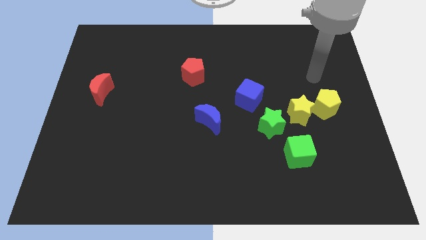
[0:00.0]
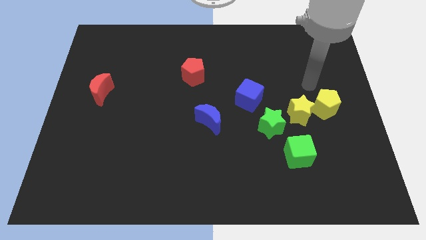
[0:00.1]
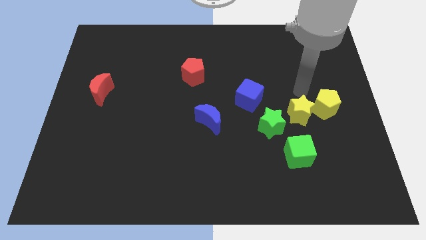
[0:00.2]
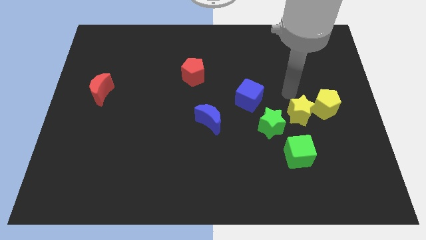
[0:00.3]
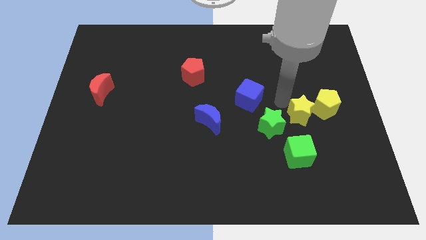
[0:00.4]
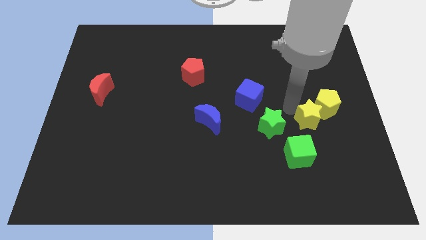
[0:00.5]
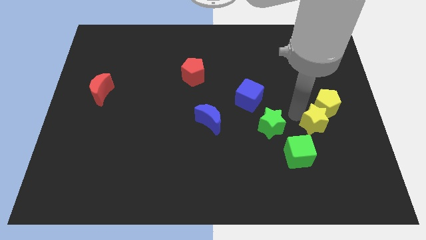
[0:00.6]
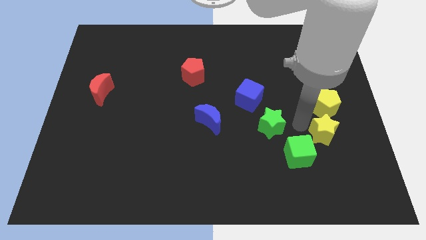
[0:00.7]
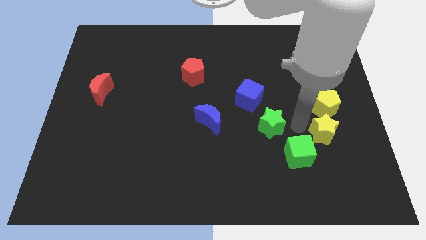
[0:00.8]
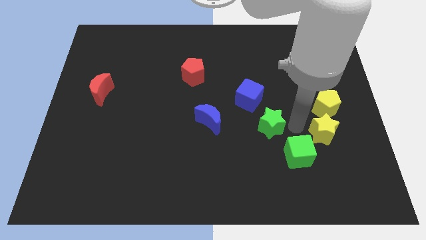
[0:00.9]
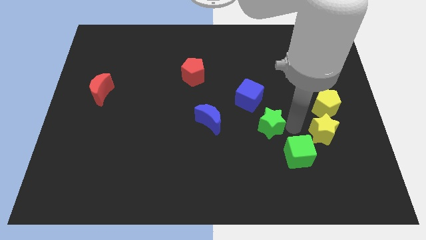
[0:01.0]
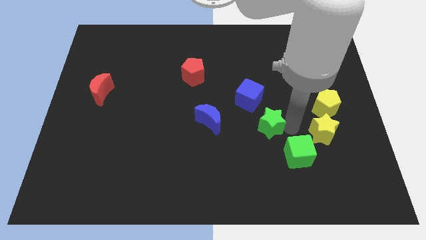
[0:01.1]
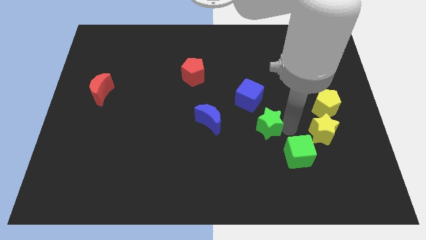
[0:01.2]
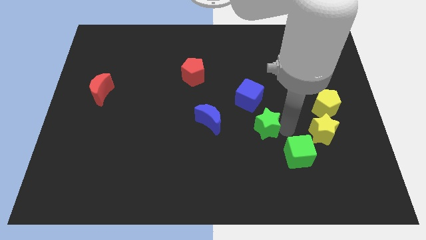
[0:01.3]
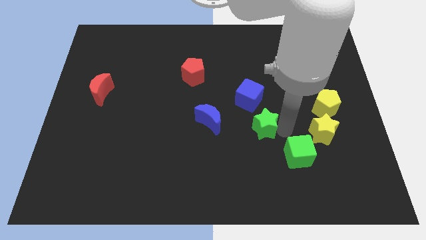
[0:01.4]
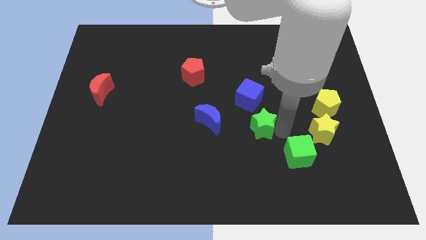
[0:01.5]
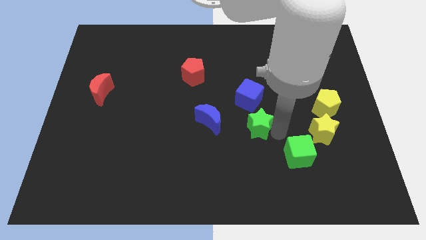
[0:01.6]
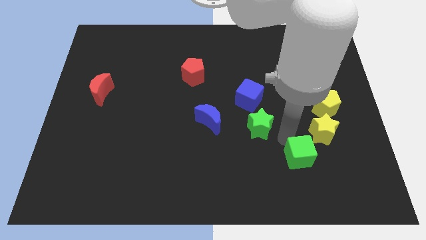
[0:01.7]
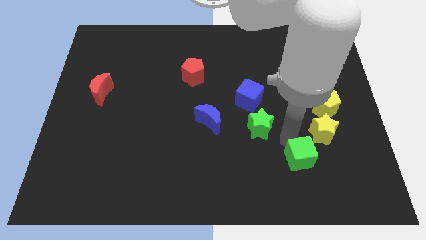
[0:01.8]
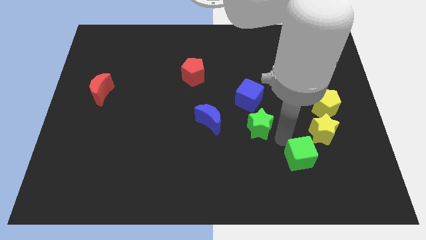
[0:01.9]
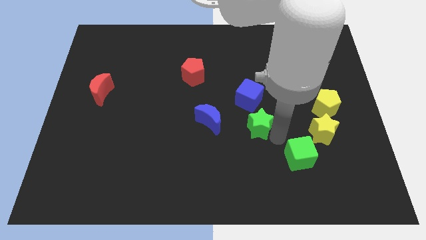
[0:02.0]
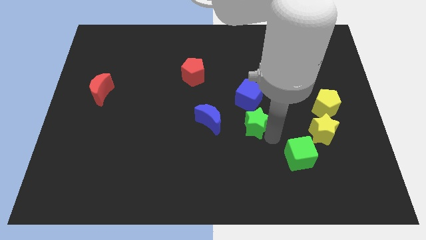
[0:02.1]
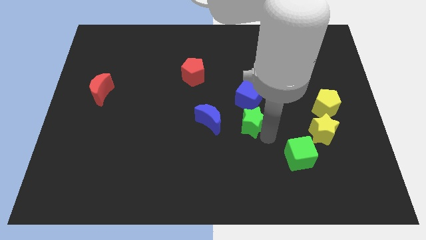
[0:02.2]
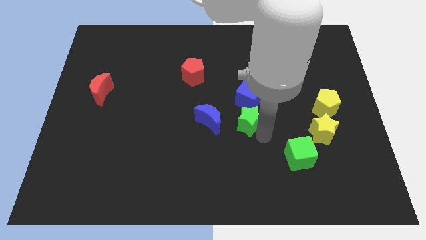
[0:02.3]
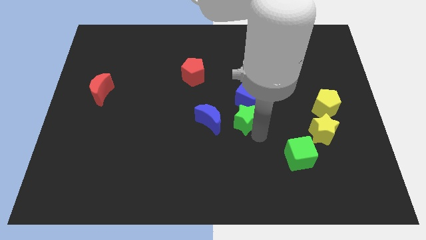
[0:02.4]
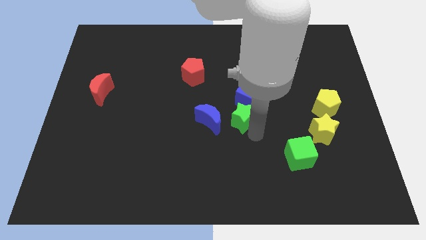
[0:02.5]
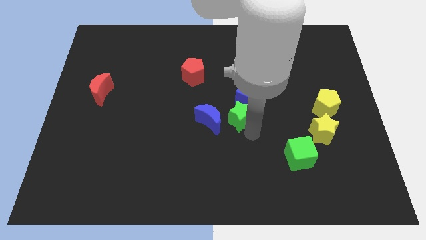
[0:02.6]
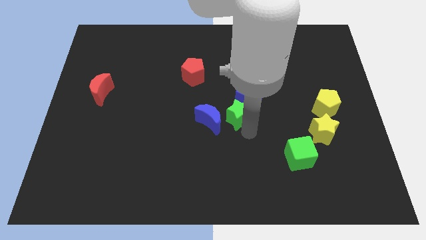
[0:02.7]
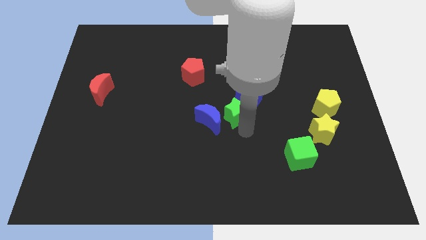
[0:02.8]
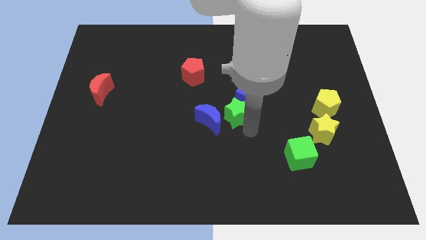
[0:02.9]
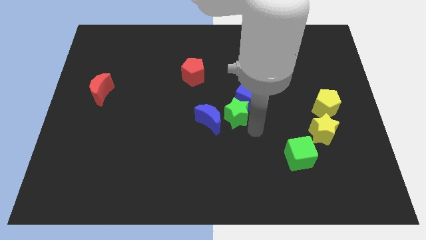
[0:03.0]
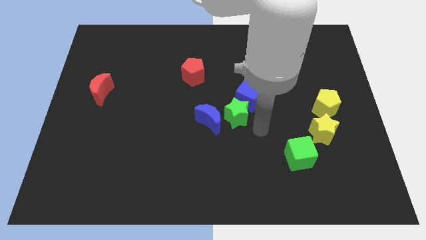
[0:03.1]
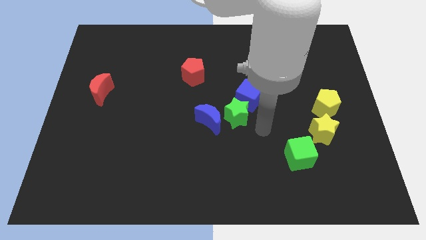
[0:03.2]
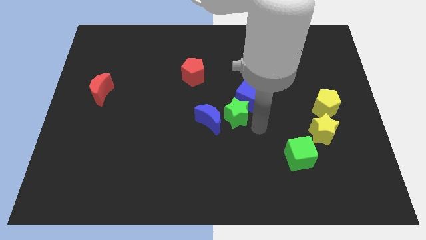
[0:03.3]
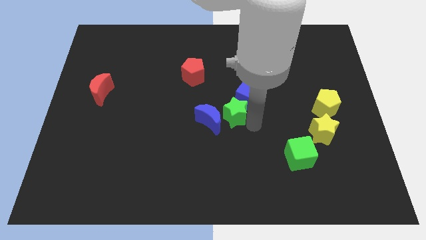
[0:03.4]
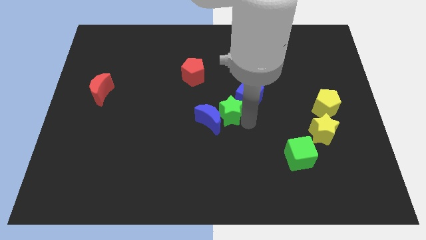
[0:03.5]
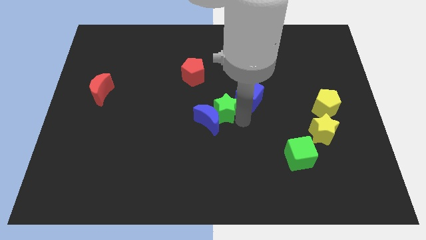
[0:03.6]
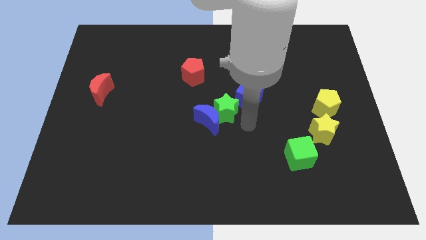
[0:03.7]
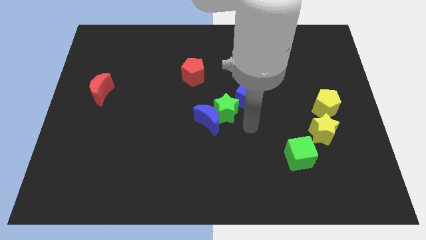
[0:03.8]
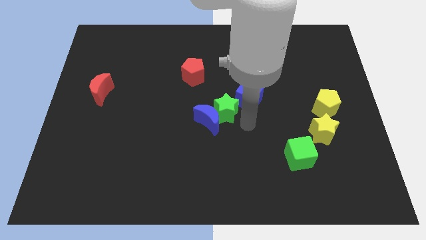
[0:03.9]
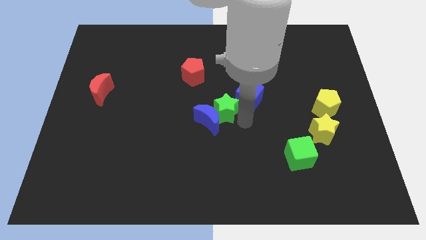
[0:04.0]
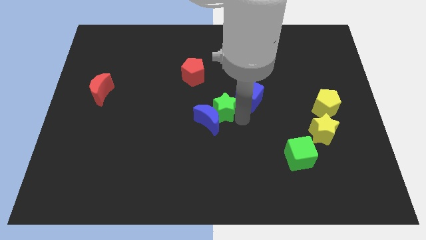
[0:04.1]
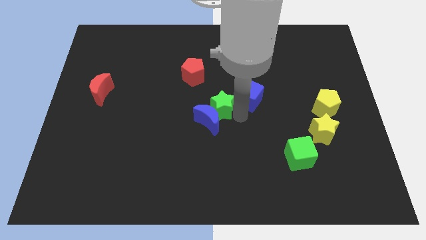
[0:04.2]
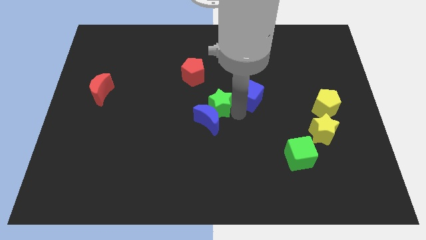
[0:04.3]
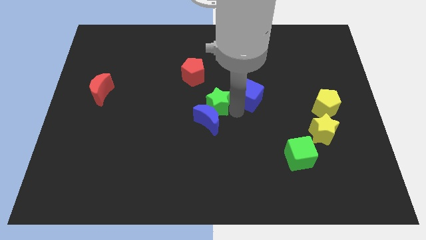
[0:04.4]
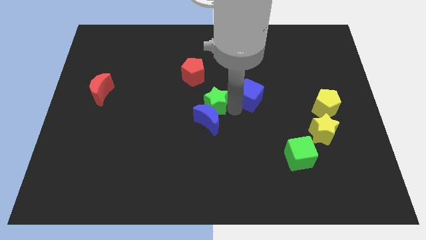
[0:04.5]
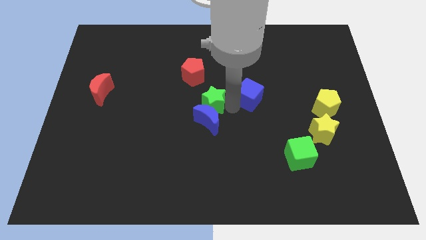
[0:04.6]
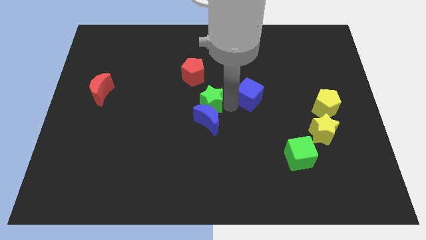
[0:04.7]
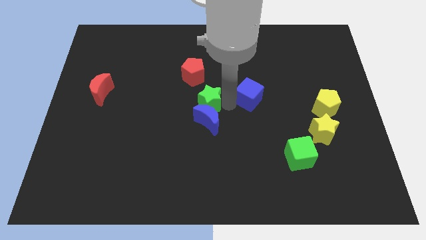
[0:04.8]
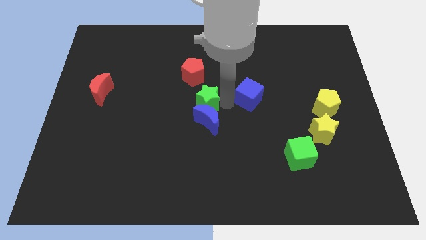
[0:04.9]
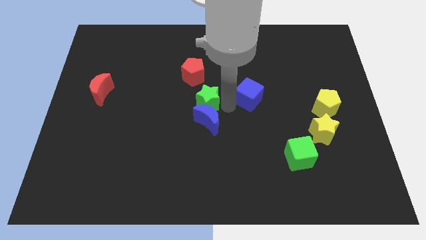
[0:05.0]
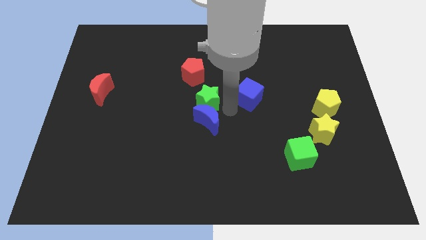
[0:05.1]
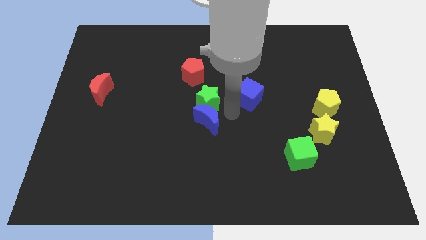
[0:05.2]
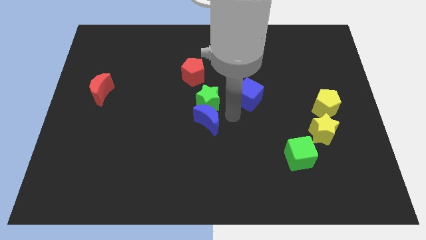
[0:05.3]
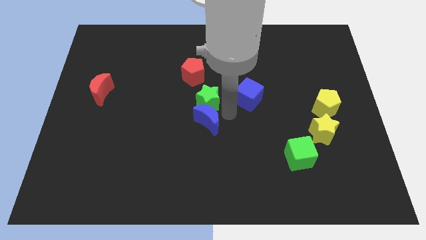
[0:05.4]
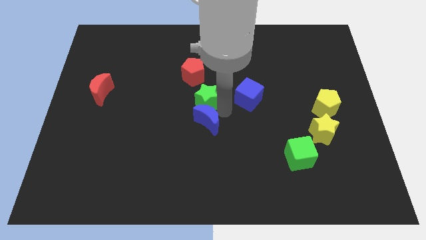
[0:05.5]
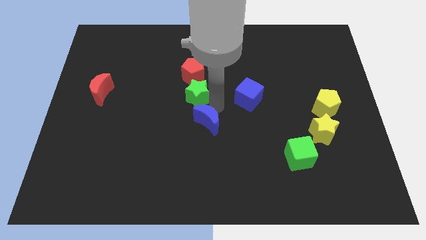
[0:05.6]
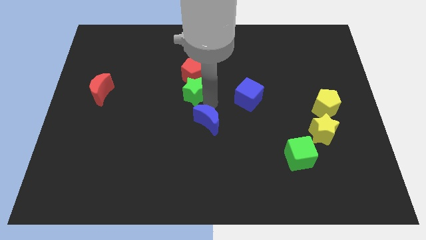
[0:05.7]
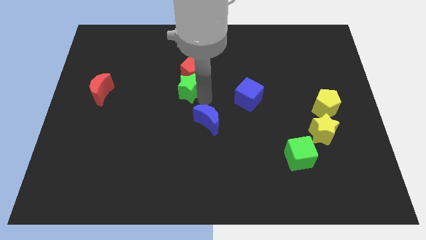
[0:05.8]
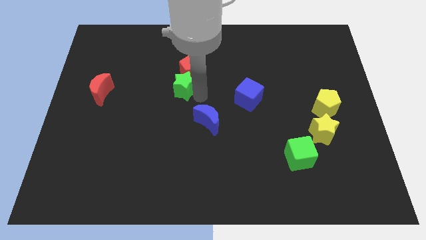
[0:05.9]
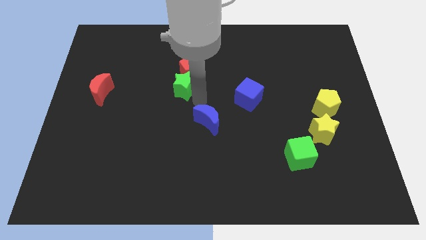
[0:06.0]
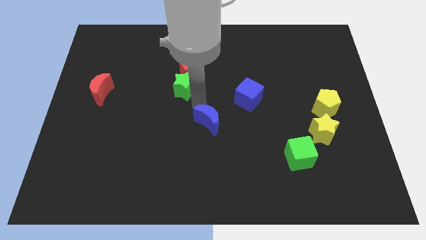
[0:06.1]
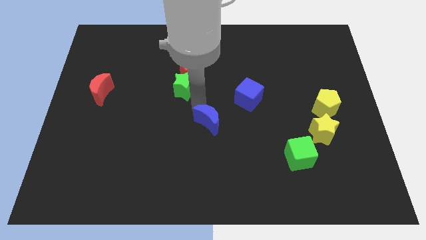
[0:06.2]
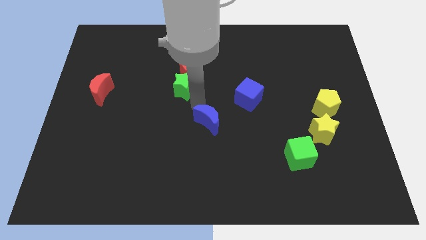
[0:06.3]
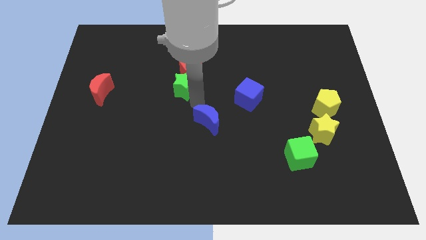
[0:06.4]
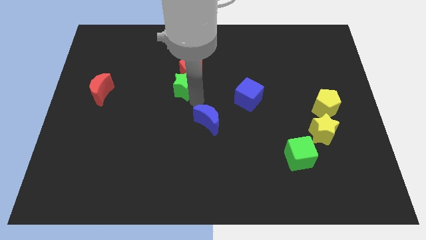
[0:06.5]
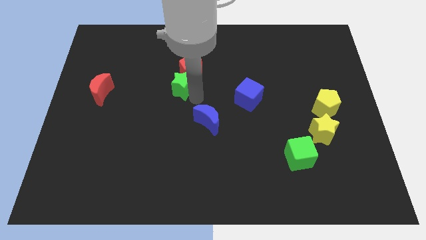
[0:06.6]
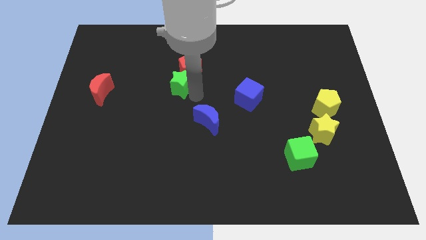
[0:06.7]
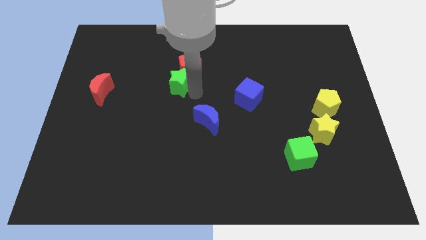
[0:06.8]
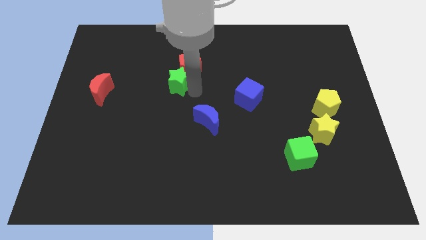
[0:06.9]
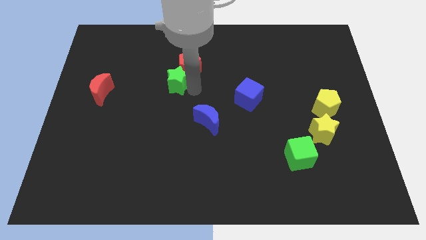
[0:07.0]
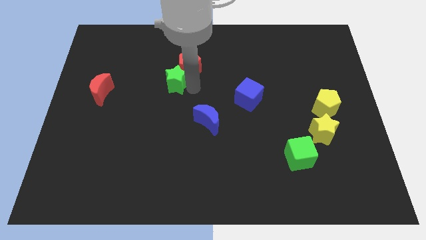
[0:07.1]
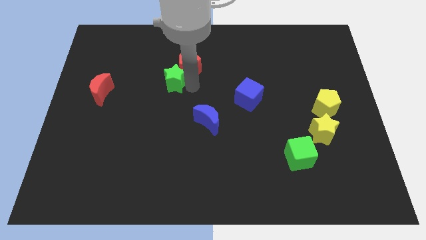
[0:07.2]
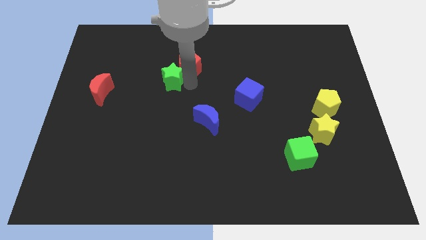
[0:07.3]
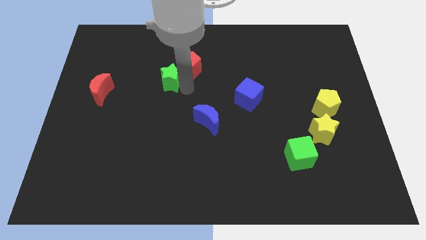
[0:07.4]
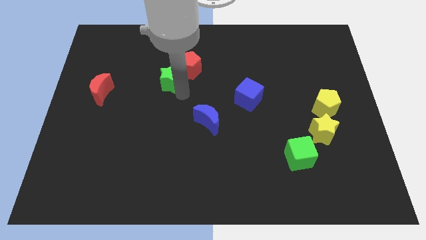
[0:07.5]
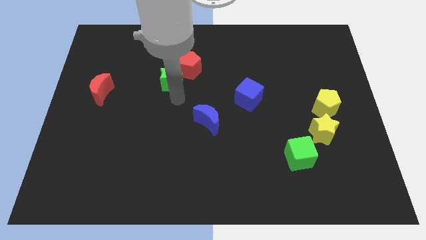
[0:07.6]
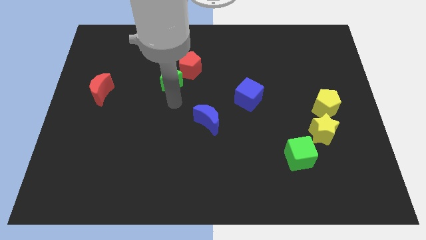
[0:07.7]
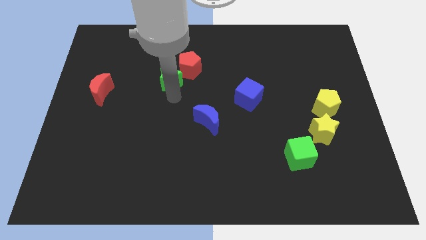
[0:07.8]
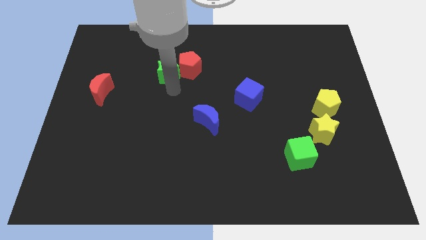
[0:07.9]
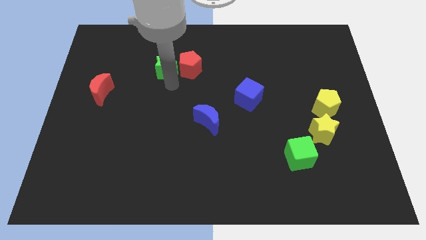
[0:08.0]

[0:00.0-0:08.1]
put the green star to the top left of the red pentagon
